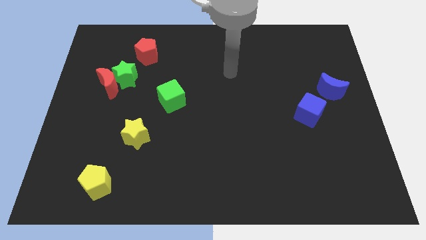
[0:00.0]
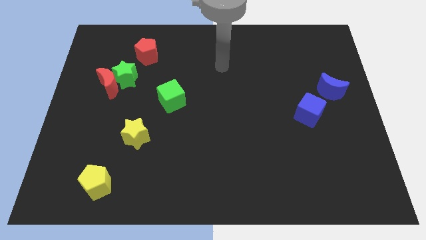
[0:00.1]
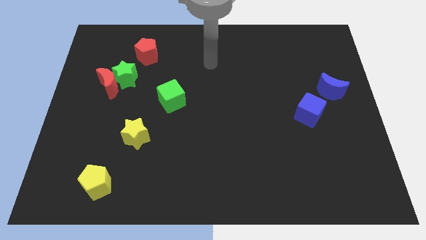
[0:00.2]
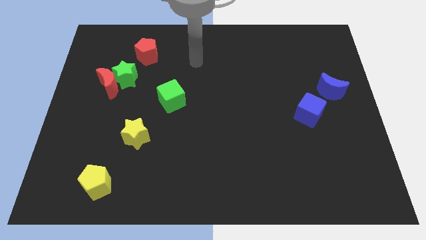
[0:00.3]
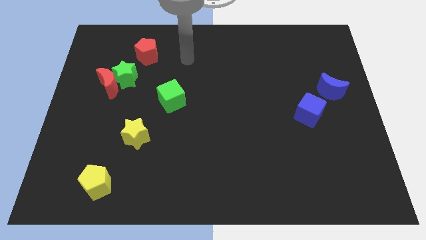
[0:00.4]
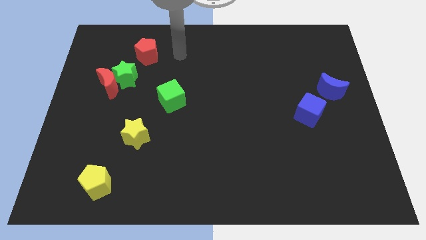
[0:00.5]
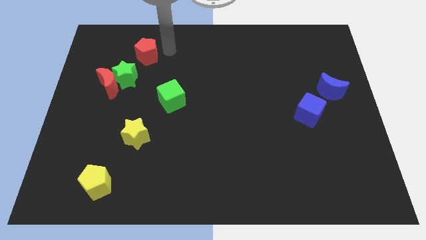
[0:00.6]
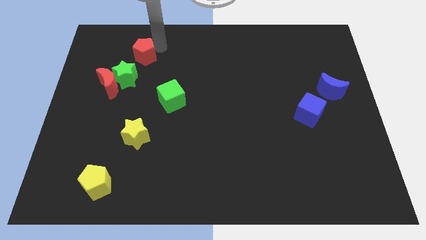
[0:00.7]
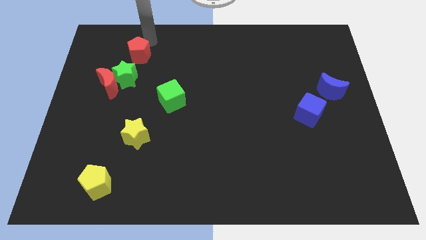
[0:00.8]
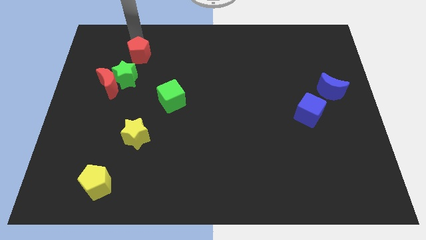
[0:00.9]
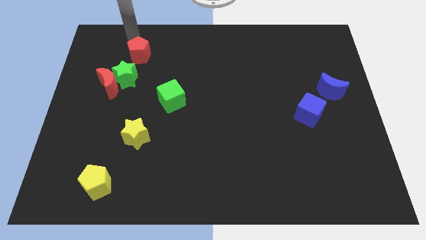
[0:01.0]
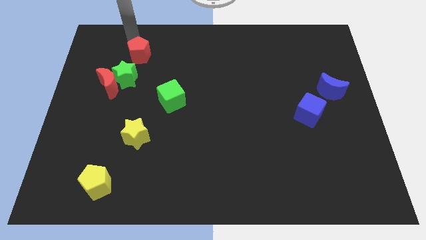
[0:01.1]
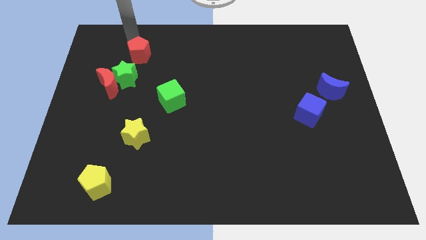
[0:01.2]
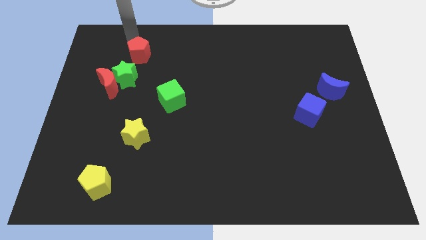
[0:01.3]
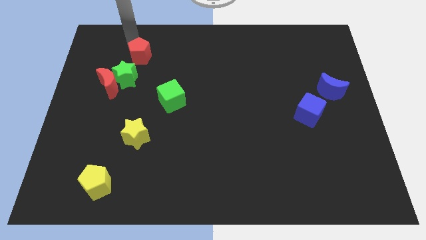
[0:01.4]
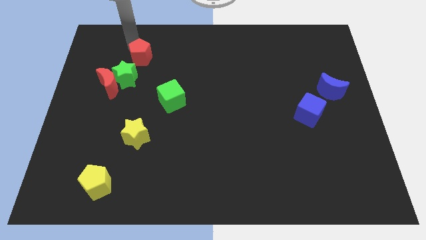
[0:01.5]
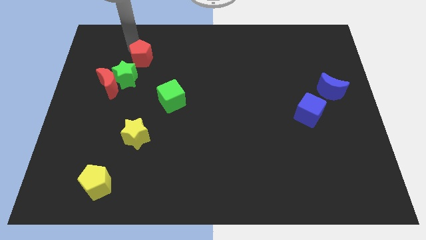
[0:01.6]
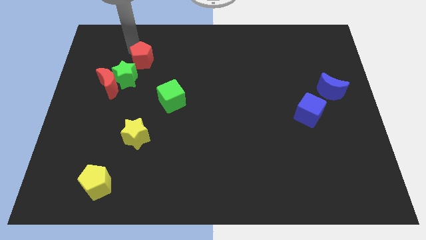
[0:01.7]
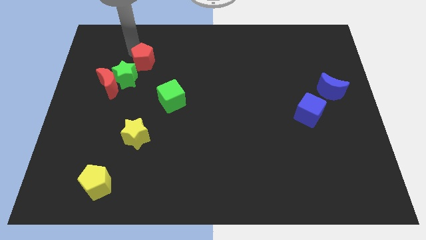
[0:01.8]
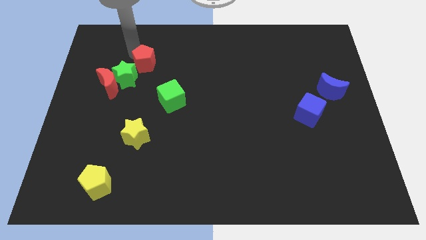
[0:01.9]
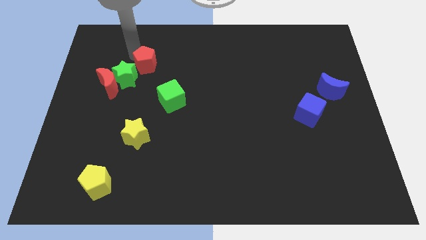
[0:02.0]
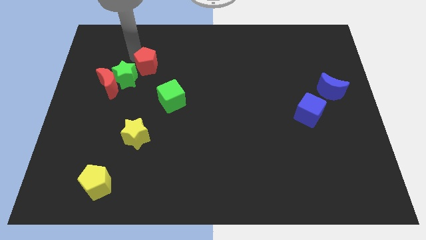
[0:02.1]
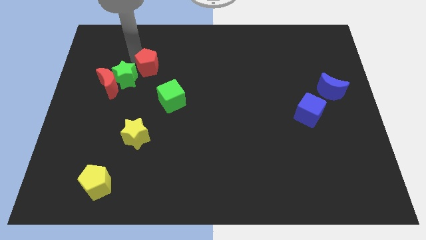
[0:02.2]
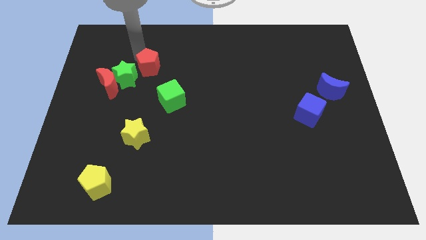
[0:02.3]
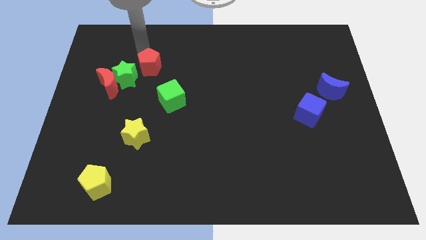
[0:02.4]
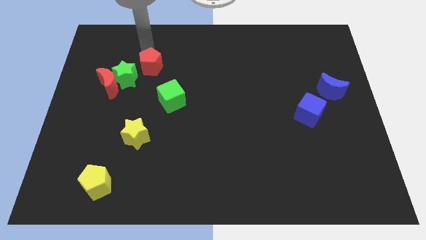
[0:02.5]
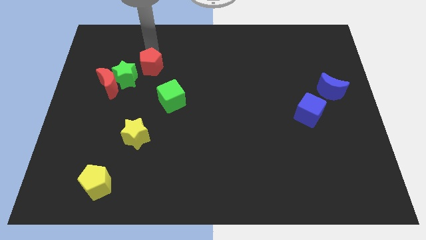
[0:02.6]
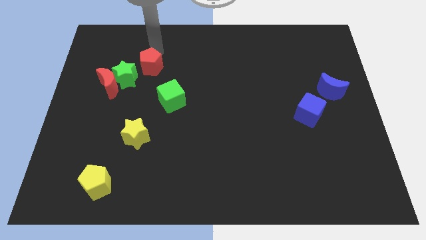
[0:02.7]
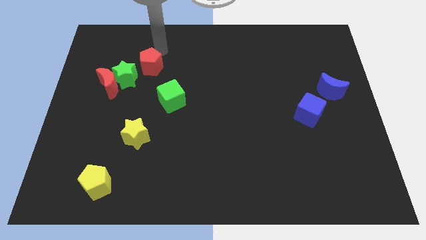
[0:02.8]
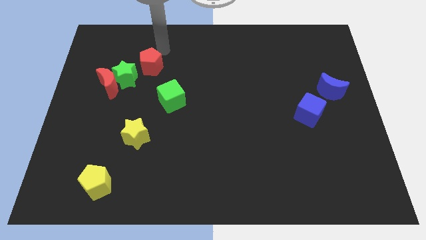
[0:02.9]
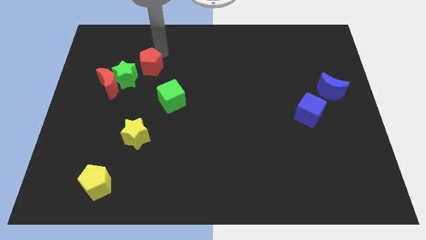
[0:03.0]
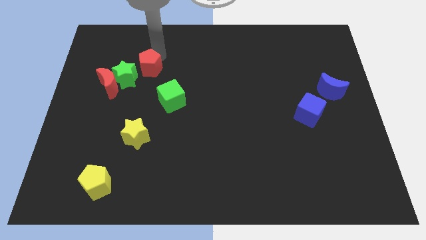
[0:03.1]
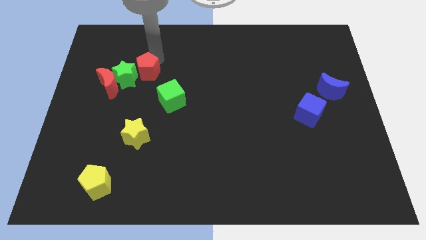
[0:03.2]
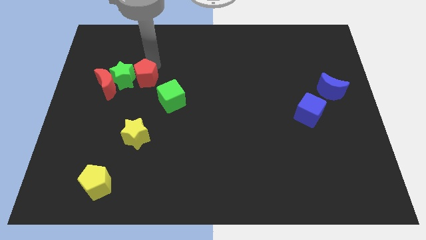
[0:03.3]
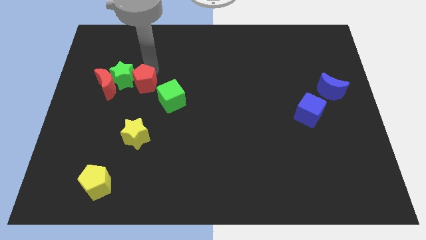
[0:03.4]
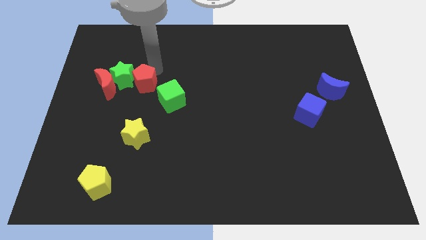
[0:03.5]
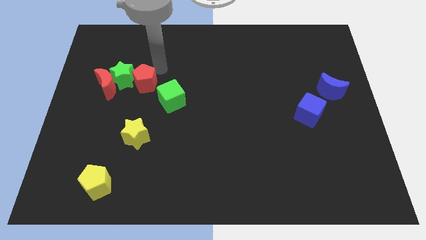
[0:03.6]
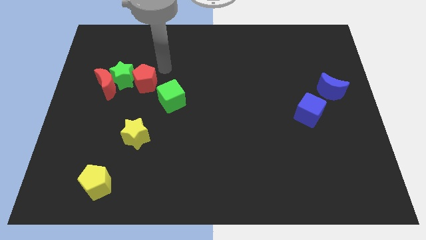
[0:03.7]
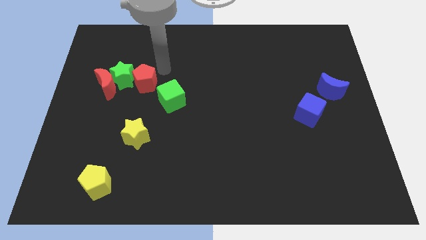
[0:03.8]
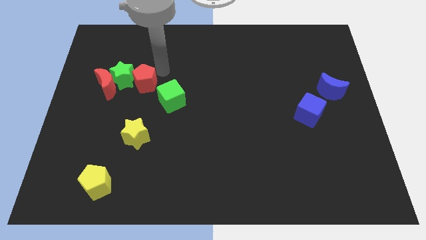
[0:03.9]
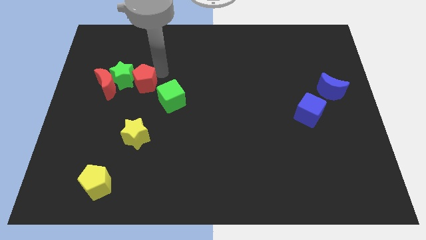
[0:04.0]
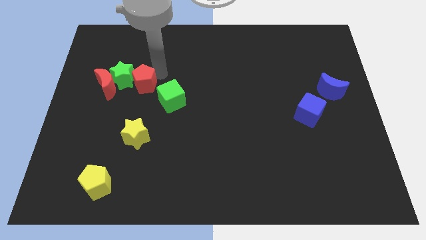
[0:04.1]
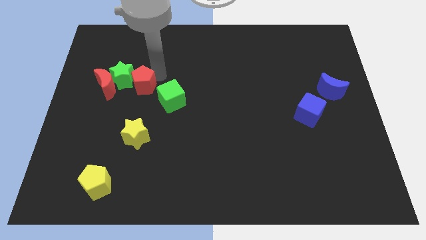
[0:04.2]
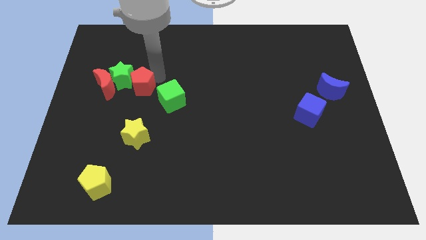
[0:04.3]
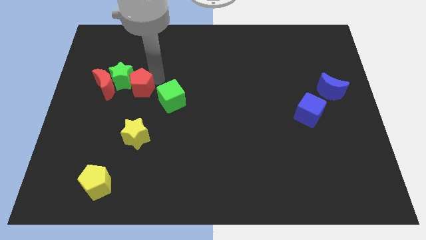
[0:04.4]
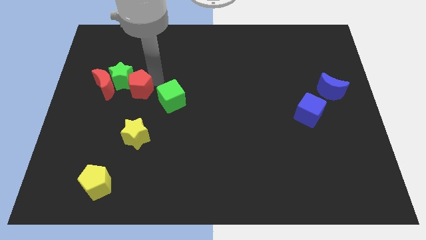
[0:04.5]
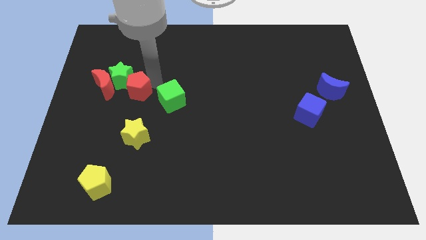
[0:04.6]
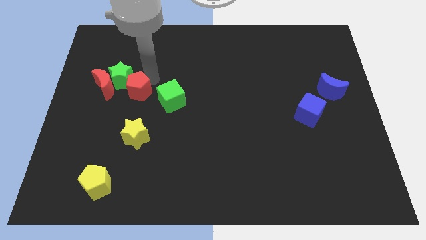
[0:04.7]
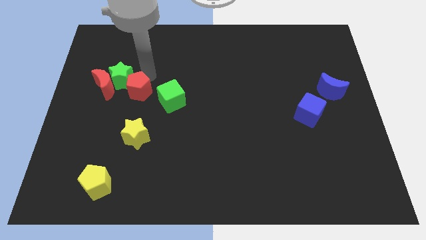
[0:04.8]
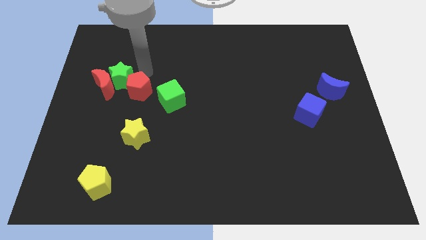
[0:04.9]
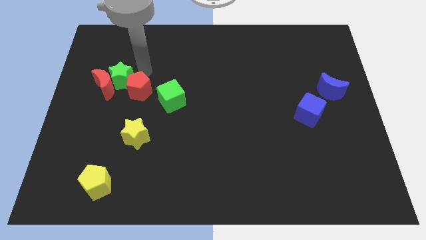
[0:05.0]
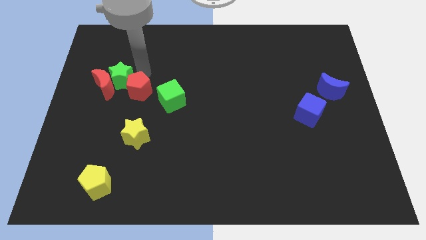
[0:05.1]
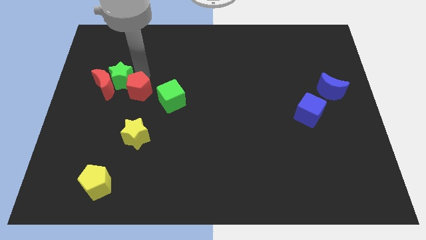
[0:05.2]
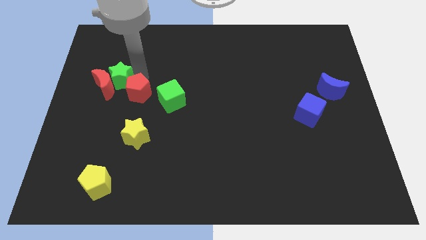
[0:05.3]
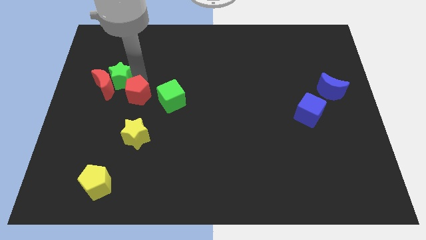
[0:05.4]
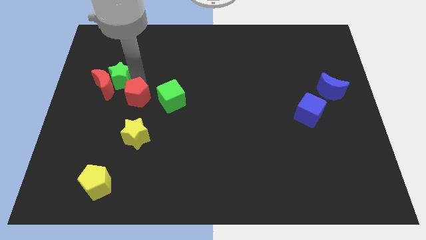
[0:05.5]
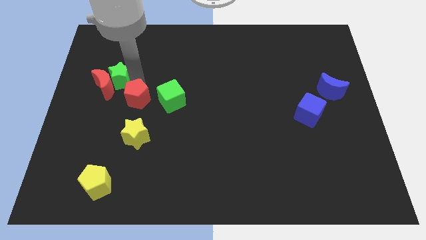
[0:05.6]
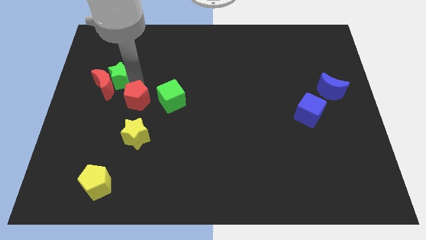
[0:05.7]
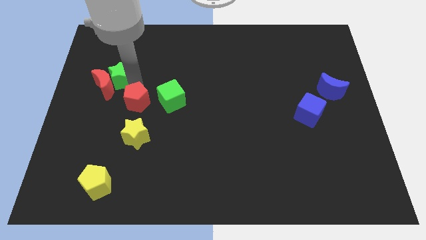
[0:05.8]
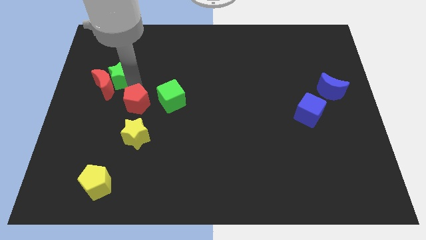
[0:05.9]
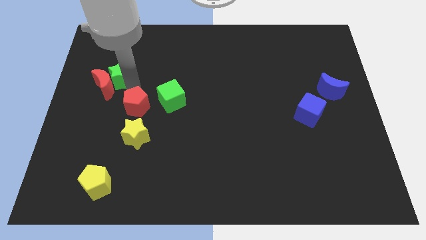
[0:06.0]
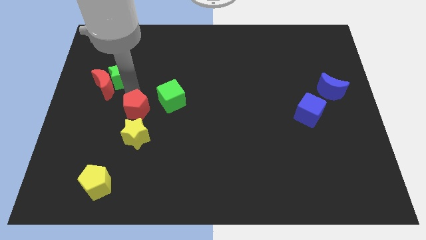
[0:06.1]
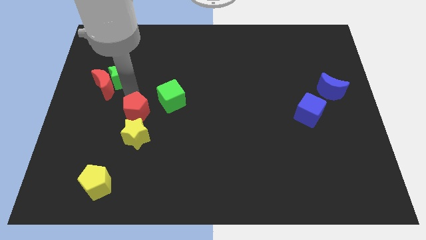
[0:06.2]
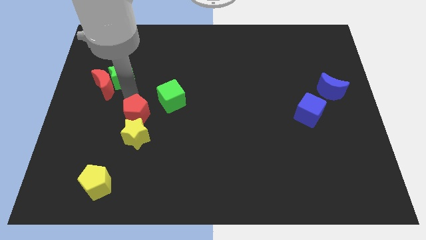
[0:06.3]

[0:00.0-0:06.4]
put the red pentagon to the yellow star

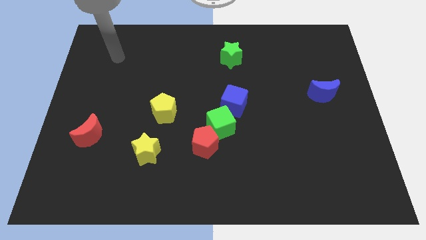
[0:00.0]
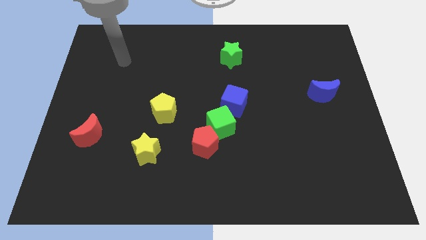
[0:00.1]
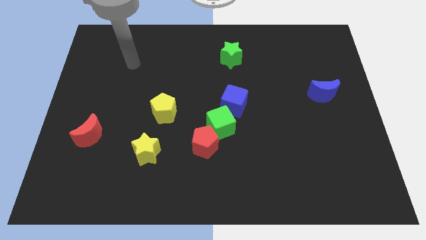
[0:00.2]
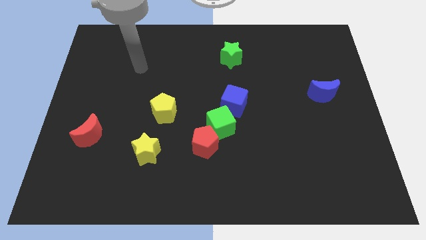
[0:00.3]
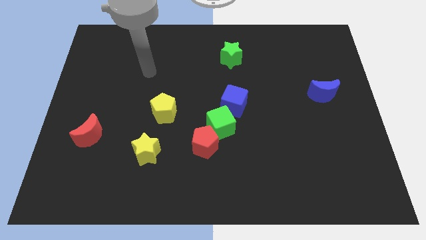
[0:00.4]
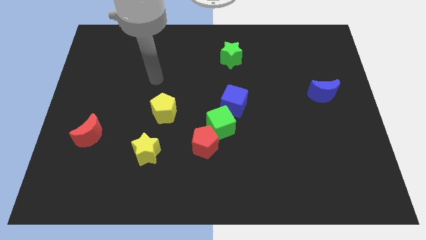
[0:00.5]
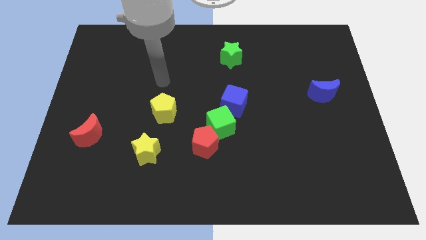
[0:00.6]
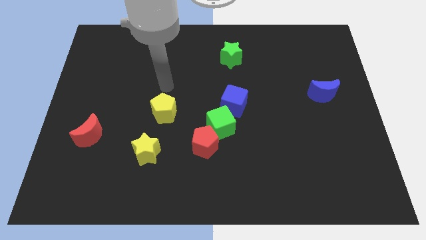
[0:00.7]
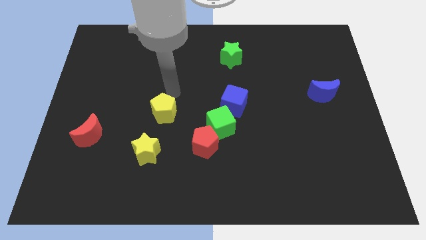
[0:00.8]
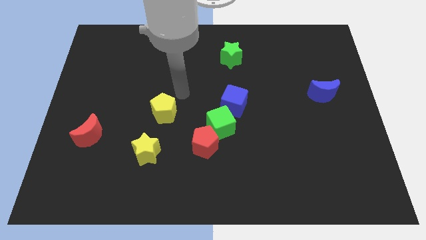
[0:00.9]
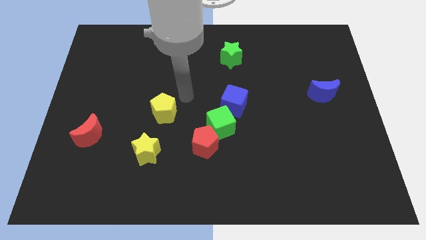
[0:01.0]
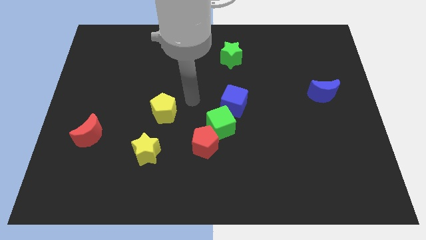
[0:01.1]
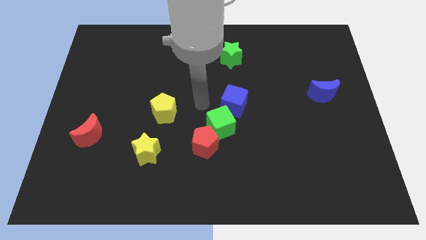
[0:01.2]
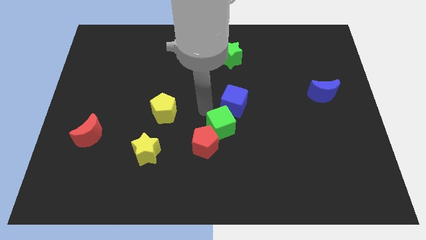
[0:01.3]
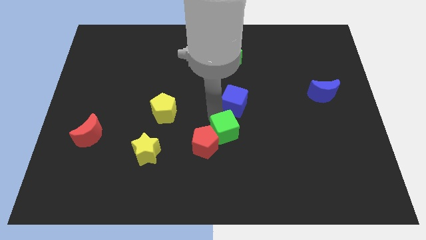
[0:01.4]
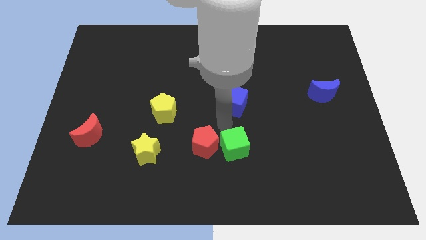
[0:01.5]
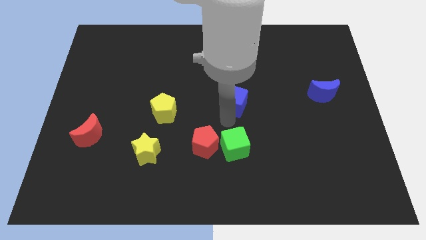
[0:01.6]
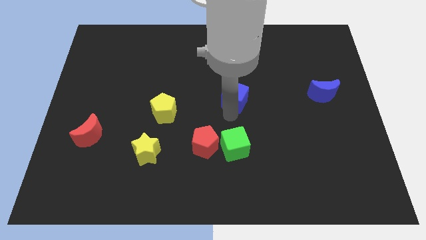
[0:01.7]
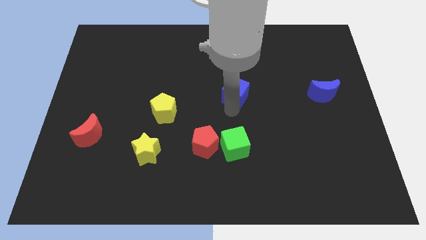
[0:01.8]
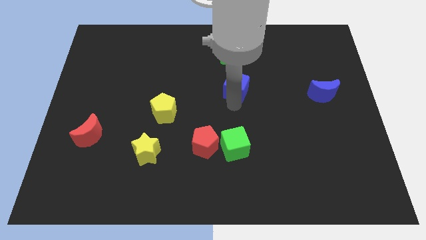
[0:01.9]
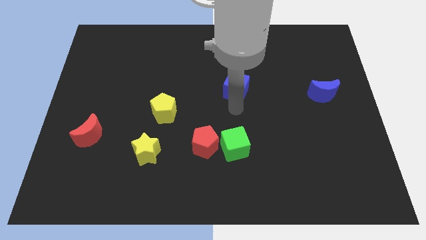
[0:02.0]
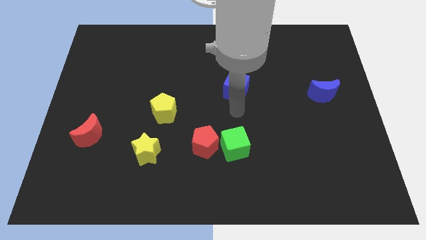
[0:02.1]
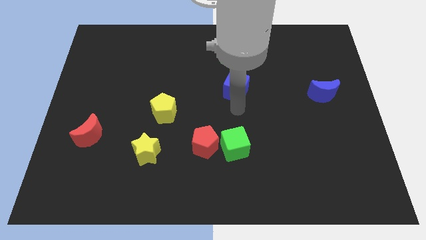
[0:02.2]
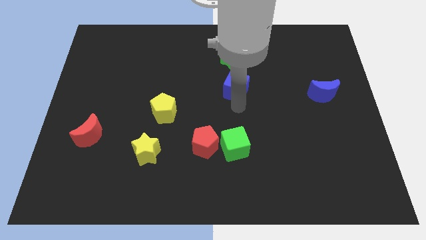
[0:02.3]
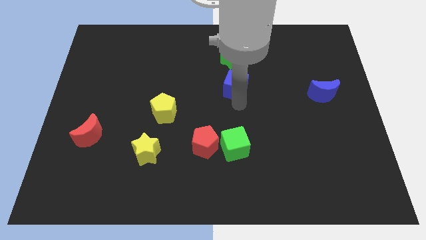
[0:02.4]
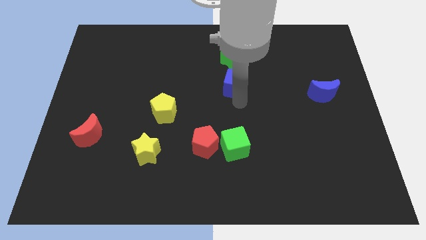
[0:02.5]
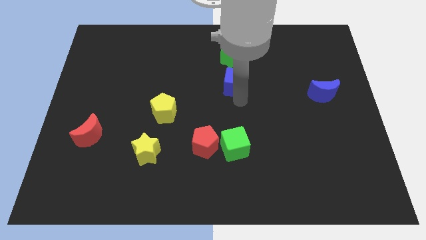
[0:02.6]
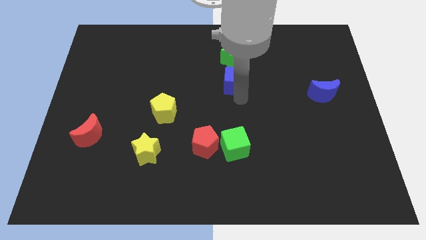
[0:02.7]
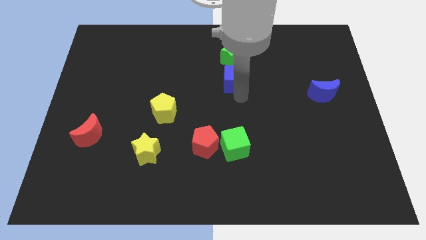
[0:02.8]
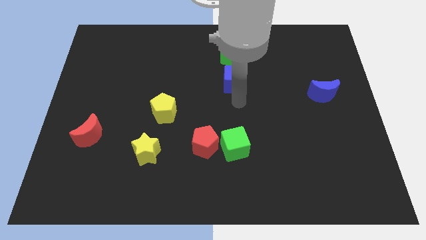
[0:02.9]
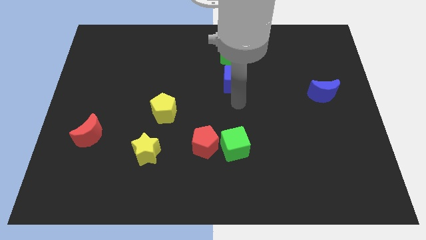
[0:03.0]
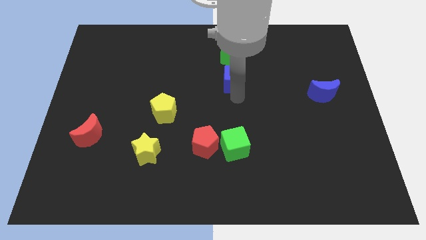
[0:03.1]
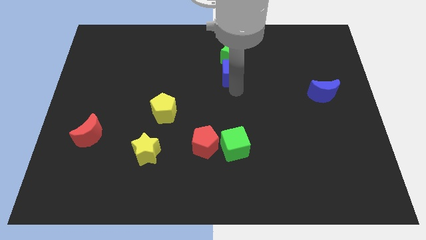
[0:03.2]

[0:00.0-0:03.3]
slide the blue cube to the green star
